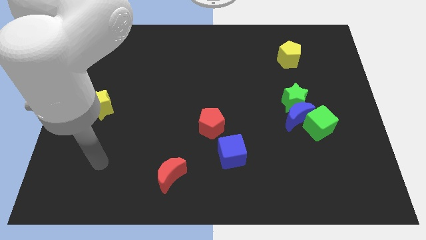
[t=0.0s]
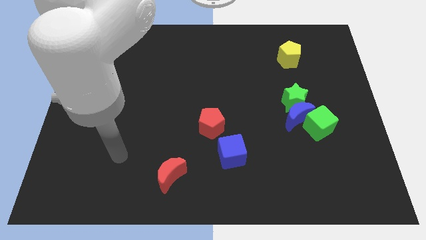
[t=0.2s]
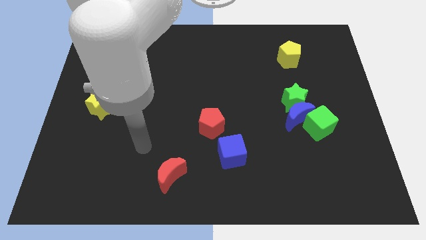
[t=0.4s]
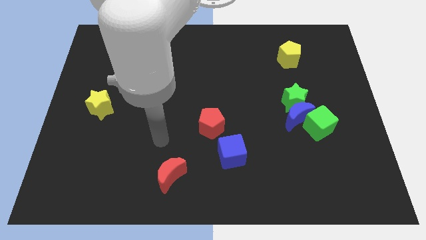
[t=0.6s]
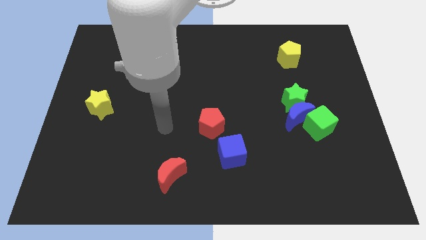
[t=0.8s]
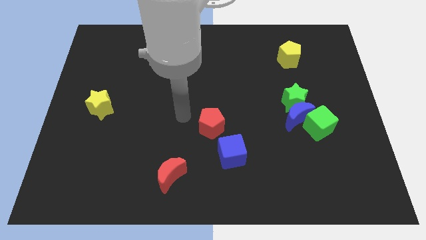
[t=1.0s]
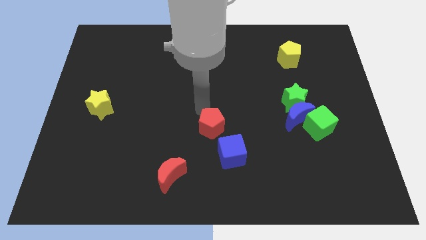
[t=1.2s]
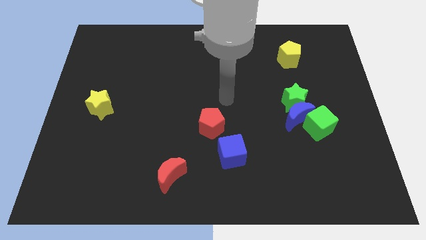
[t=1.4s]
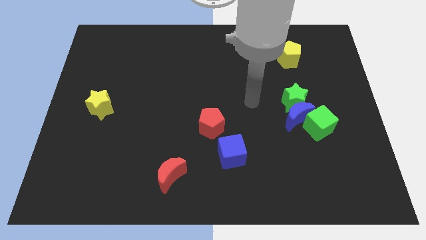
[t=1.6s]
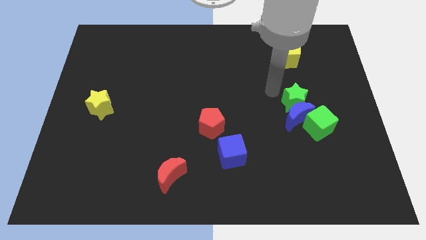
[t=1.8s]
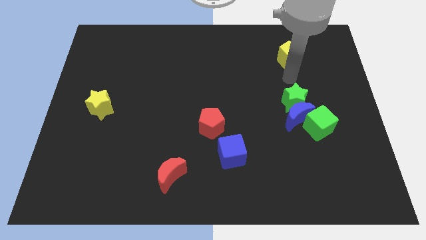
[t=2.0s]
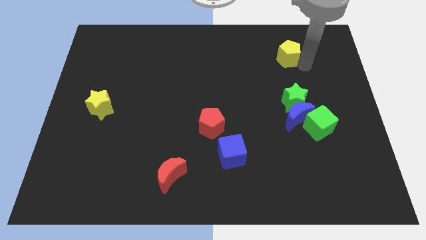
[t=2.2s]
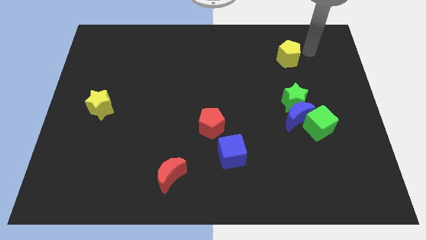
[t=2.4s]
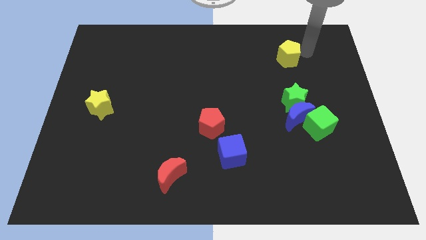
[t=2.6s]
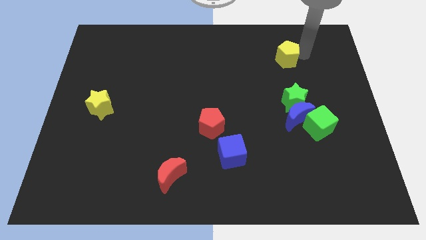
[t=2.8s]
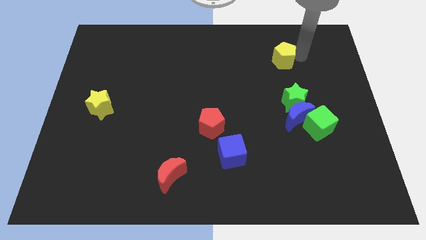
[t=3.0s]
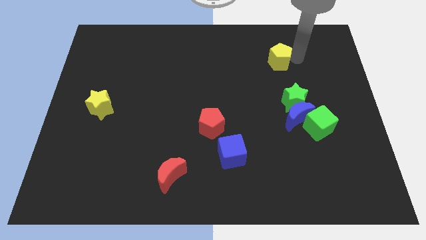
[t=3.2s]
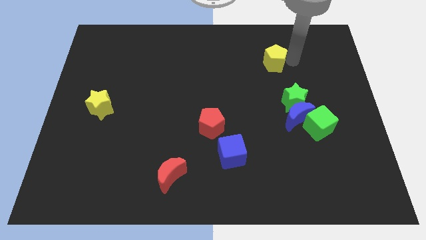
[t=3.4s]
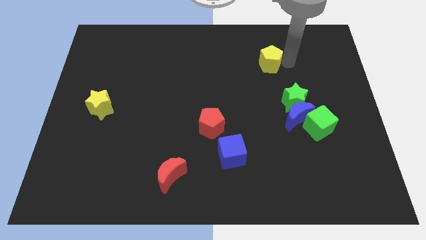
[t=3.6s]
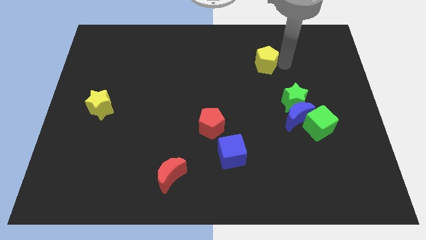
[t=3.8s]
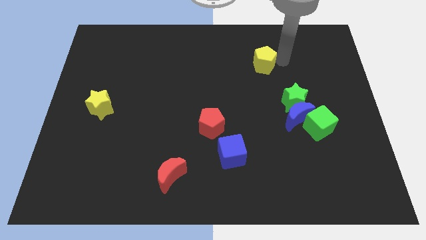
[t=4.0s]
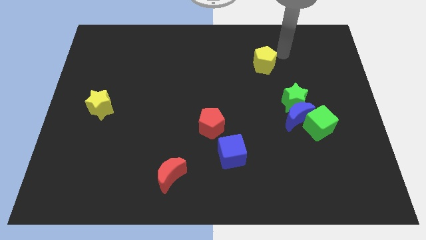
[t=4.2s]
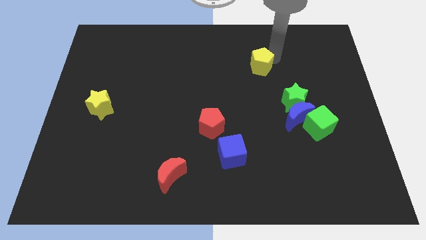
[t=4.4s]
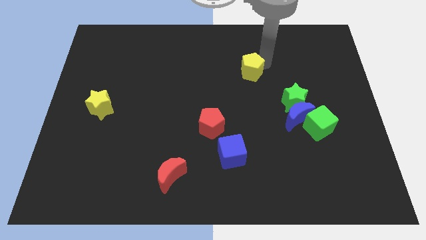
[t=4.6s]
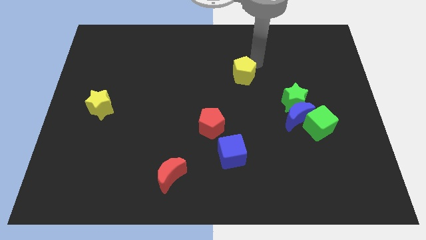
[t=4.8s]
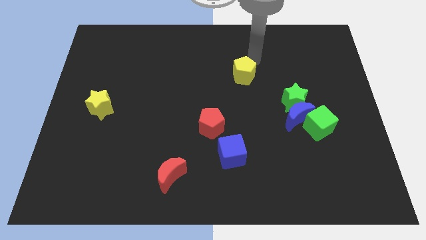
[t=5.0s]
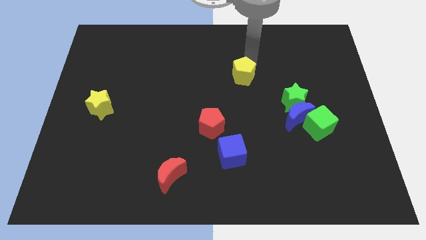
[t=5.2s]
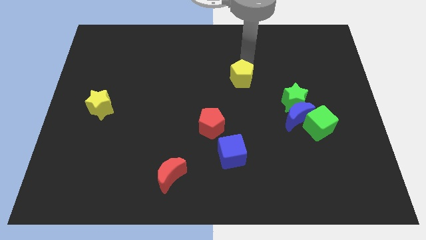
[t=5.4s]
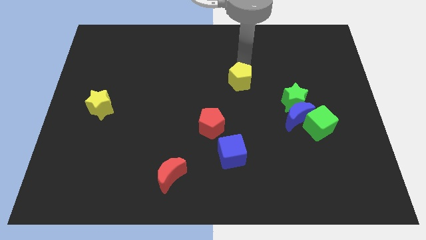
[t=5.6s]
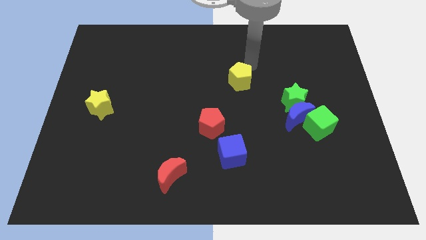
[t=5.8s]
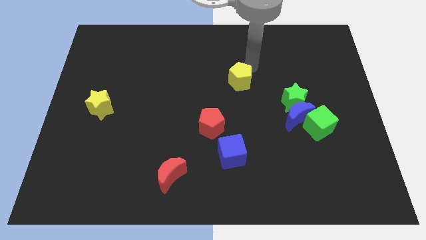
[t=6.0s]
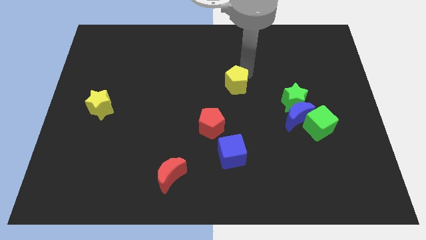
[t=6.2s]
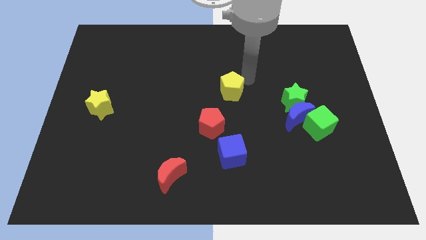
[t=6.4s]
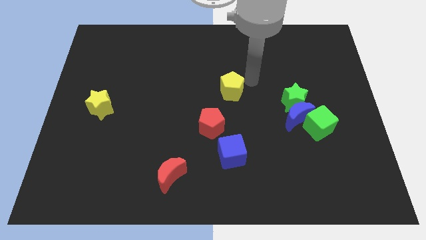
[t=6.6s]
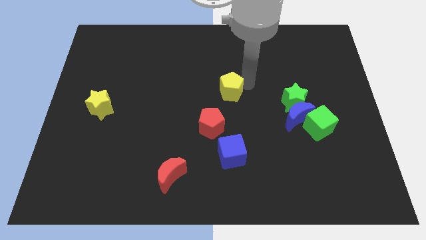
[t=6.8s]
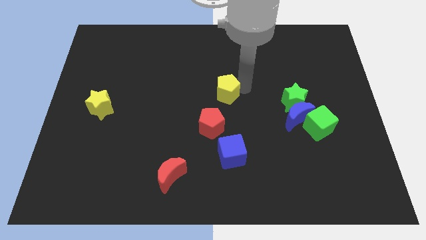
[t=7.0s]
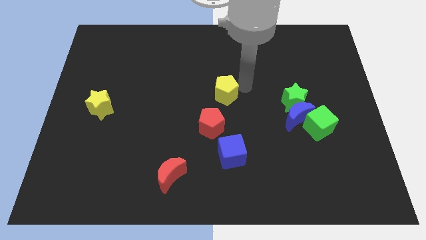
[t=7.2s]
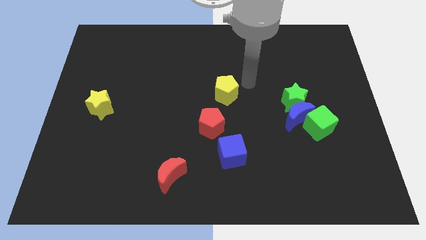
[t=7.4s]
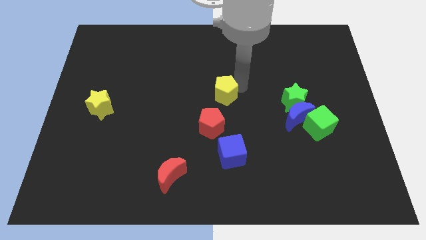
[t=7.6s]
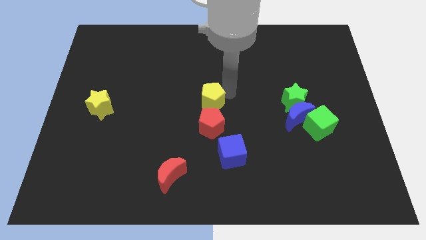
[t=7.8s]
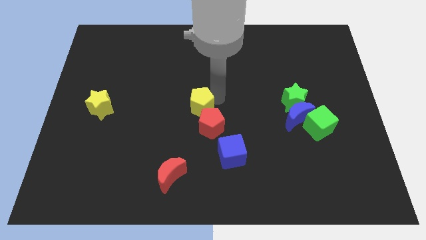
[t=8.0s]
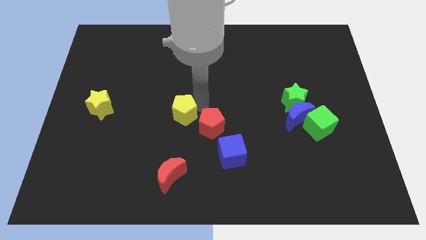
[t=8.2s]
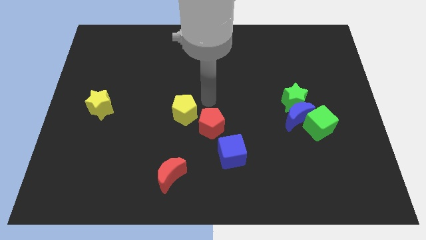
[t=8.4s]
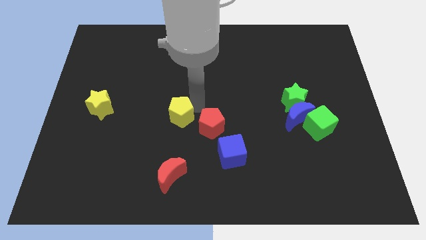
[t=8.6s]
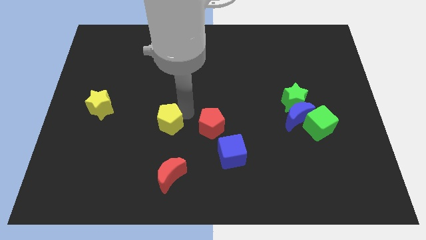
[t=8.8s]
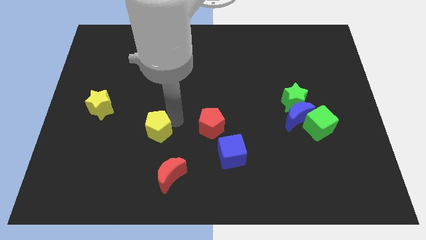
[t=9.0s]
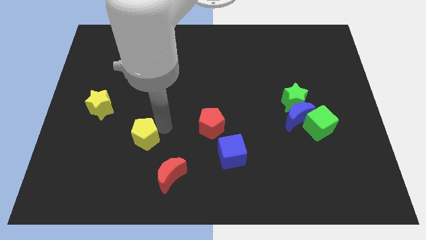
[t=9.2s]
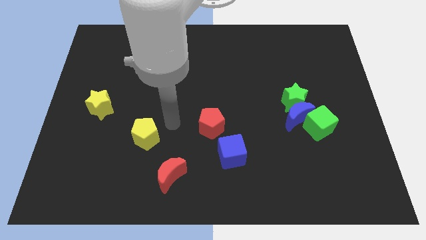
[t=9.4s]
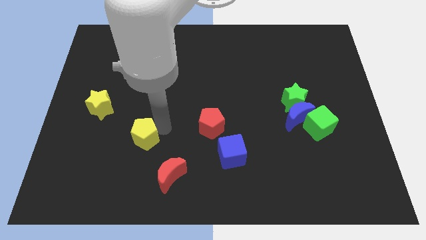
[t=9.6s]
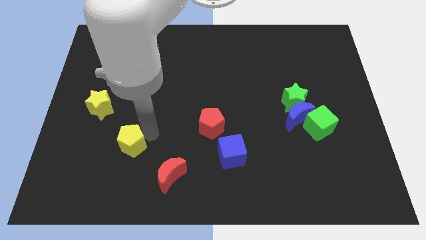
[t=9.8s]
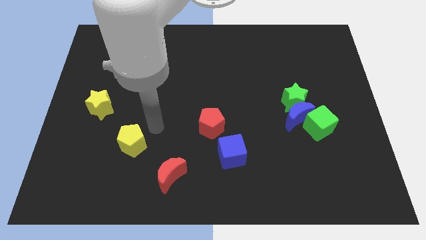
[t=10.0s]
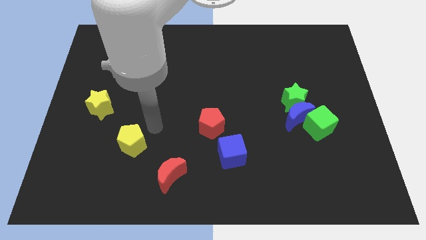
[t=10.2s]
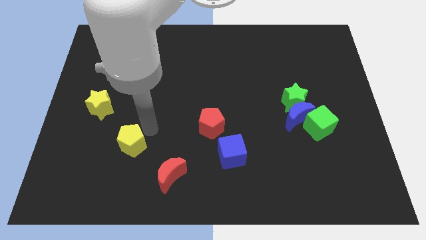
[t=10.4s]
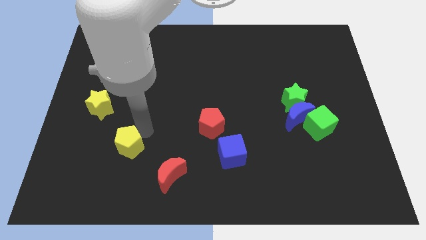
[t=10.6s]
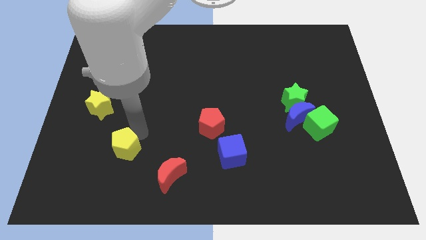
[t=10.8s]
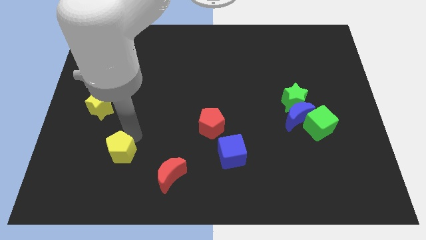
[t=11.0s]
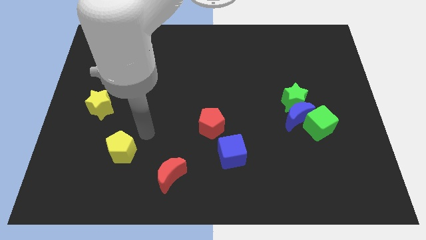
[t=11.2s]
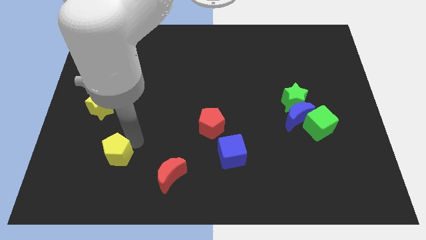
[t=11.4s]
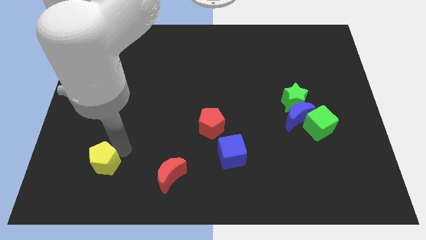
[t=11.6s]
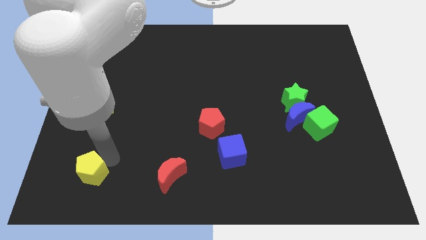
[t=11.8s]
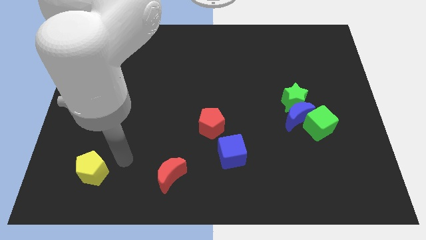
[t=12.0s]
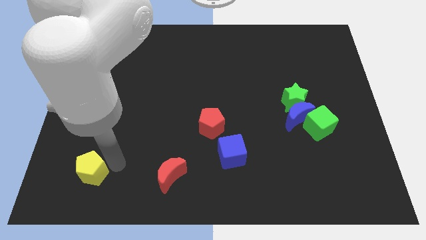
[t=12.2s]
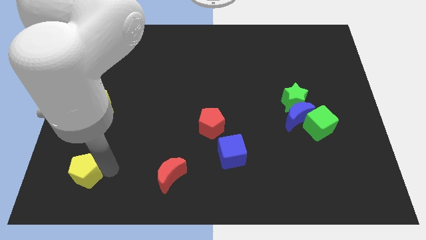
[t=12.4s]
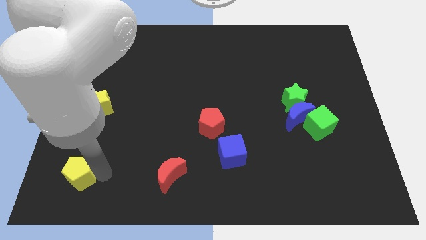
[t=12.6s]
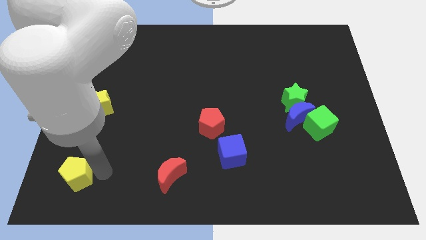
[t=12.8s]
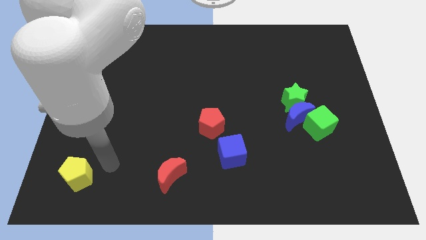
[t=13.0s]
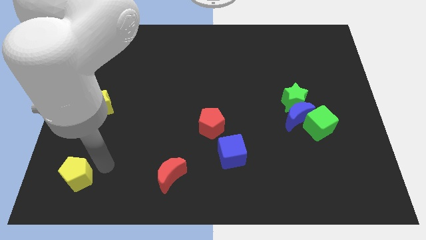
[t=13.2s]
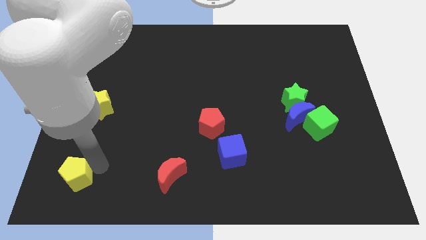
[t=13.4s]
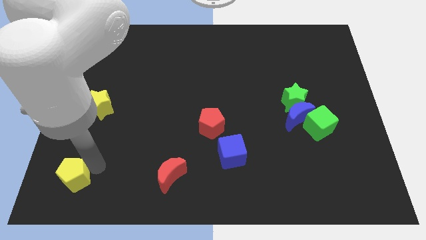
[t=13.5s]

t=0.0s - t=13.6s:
move the yellow pentagon to the lower left corner
